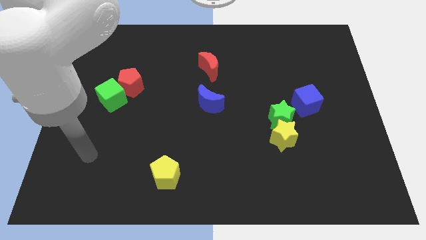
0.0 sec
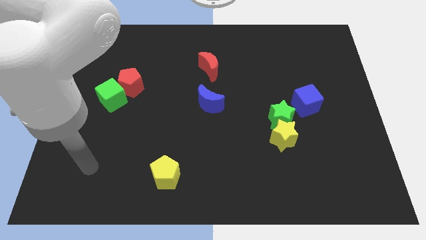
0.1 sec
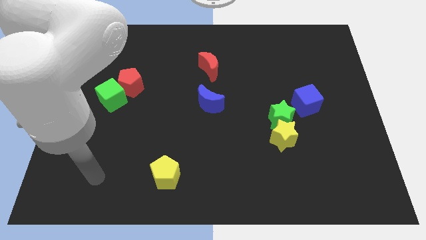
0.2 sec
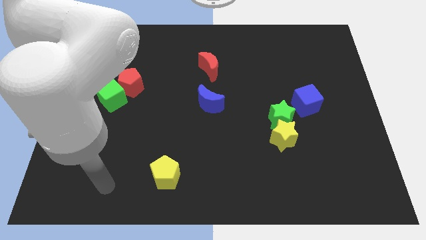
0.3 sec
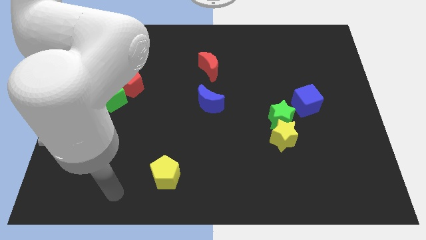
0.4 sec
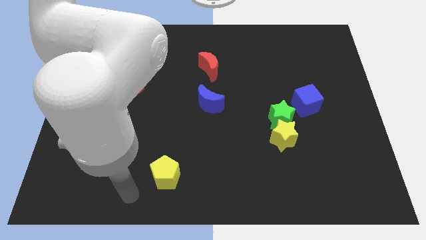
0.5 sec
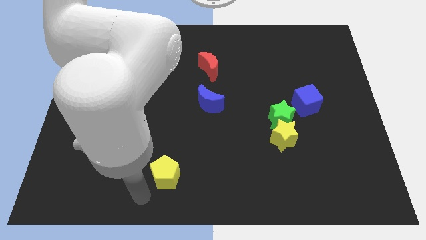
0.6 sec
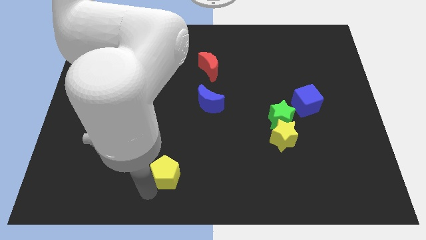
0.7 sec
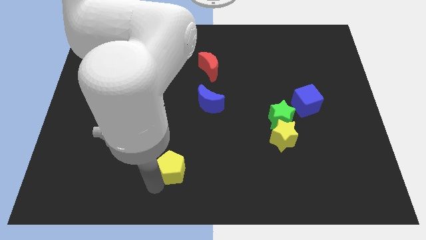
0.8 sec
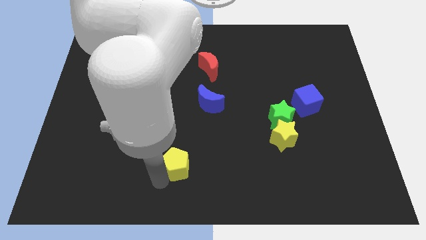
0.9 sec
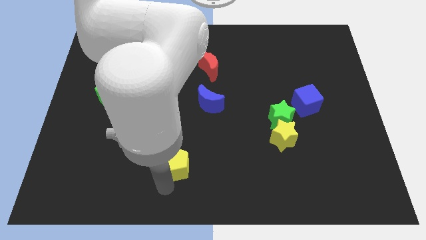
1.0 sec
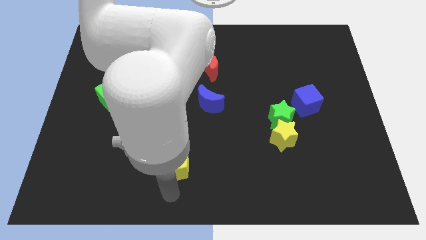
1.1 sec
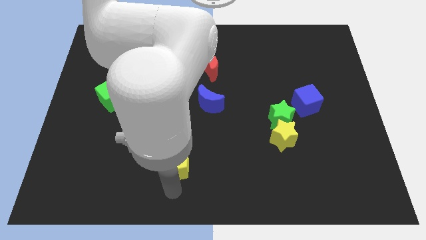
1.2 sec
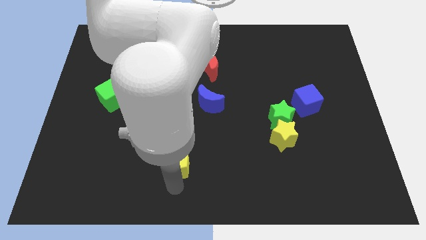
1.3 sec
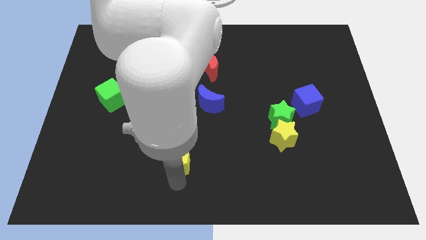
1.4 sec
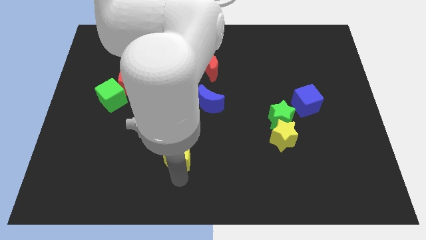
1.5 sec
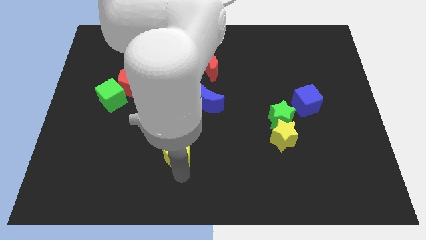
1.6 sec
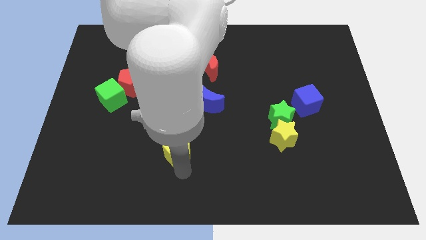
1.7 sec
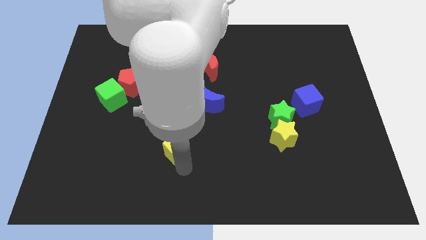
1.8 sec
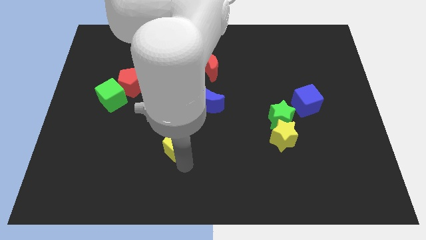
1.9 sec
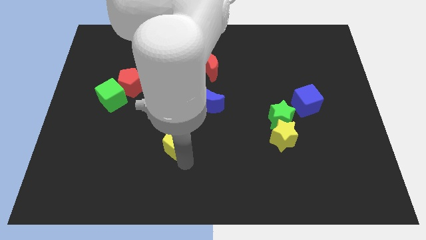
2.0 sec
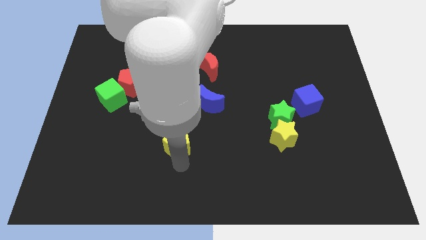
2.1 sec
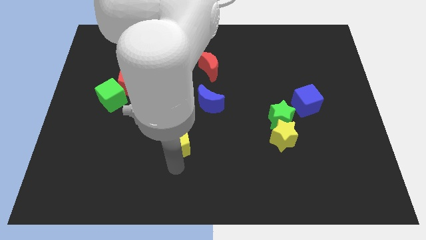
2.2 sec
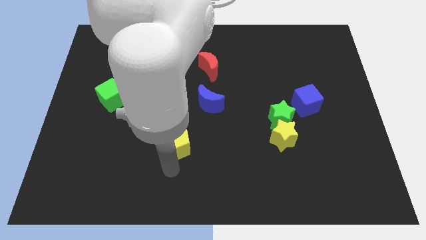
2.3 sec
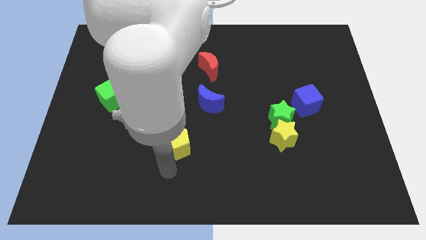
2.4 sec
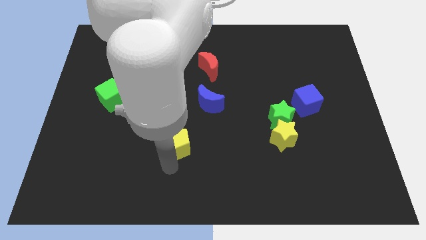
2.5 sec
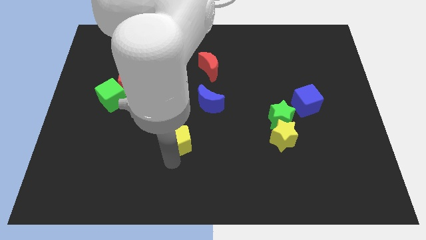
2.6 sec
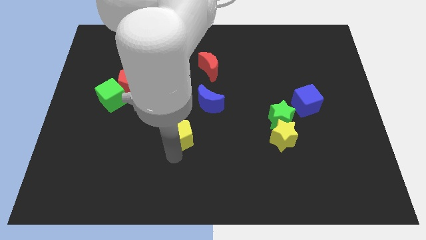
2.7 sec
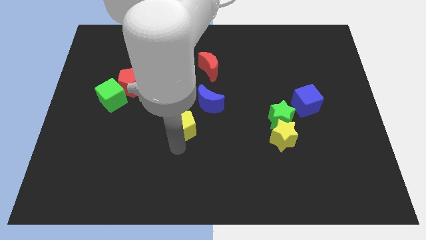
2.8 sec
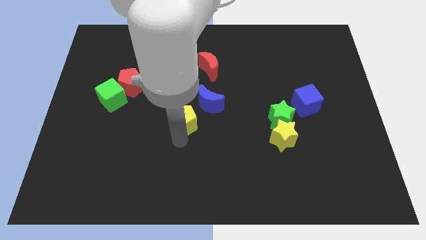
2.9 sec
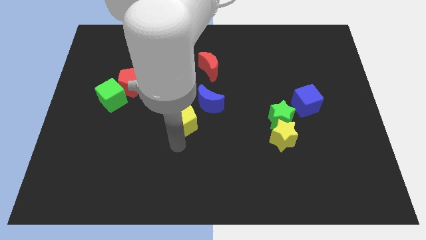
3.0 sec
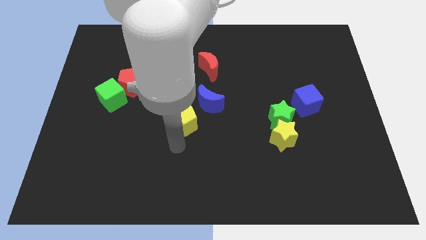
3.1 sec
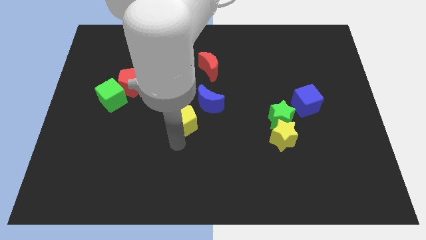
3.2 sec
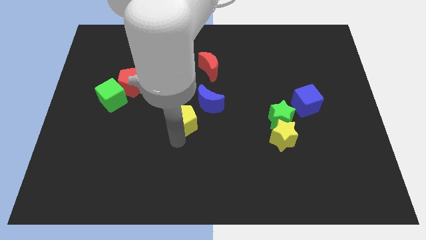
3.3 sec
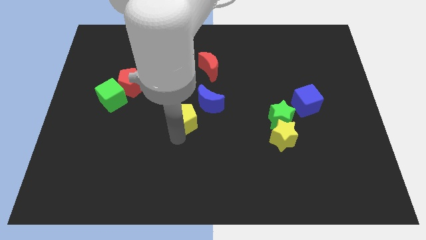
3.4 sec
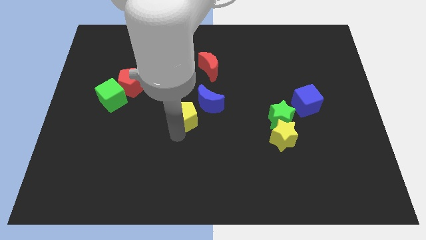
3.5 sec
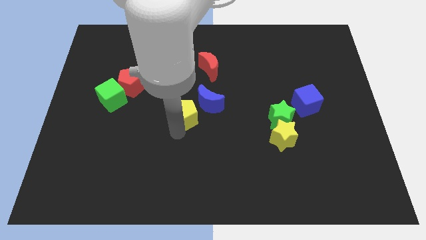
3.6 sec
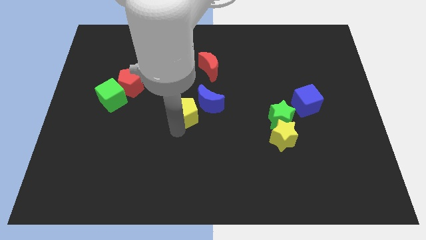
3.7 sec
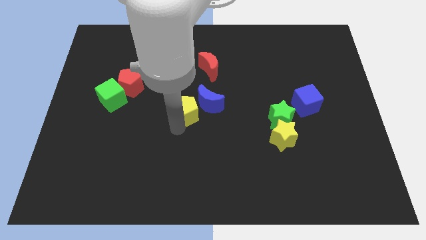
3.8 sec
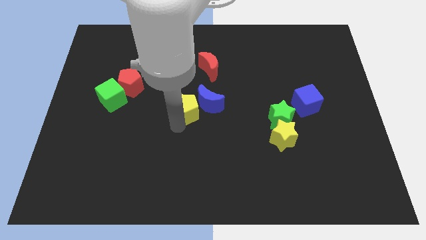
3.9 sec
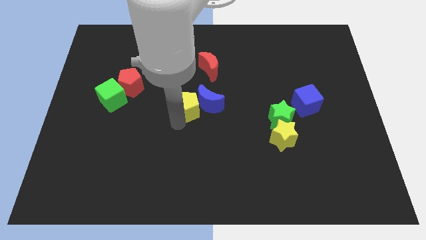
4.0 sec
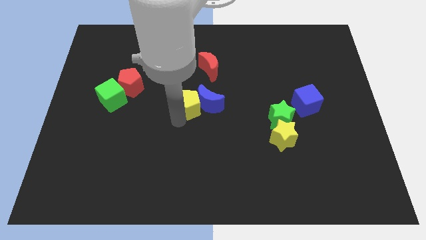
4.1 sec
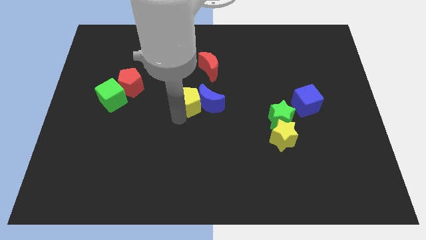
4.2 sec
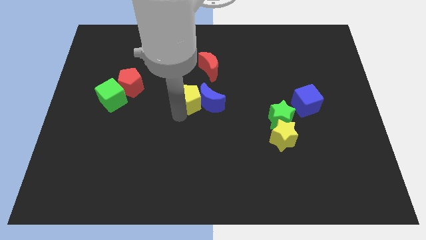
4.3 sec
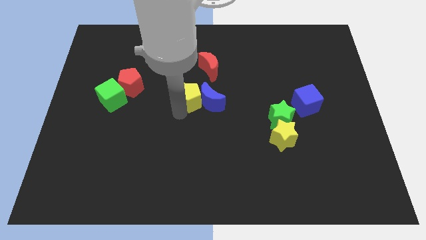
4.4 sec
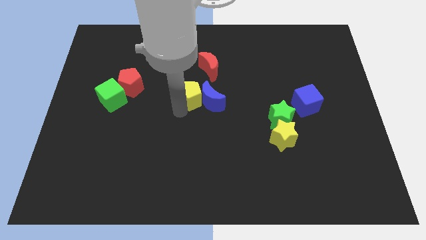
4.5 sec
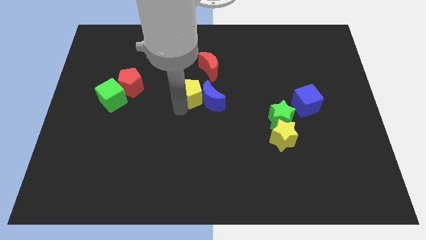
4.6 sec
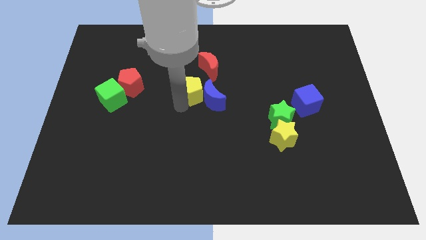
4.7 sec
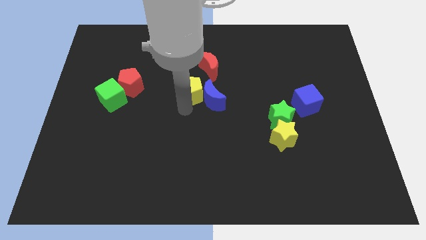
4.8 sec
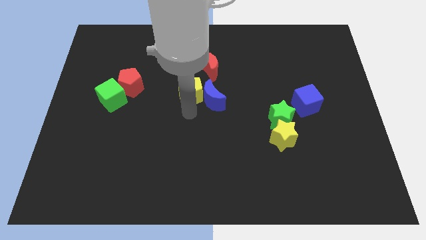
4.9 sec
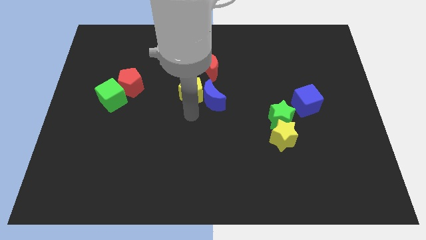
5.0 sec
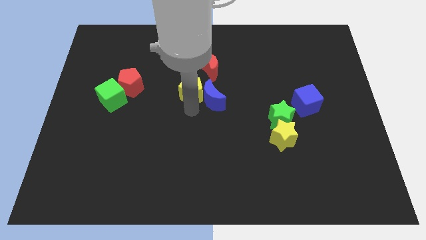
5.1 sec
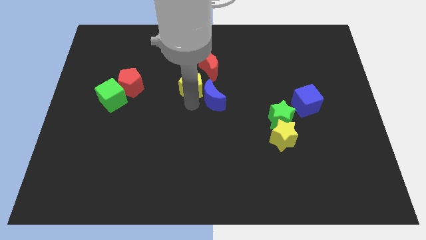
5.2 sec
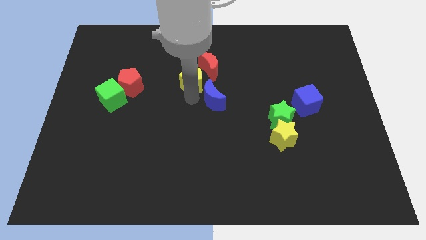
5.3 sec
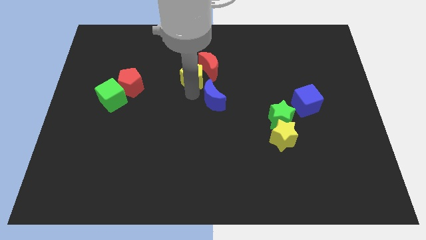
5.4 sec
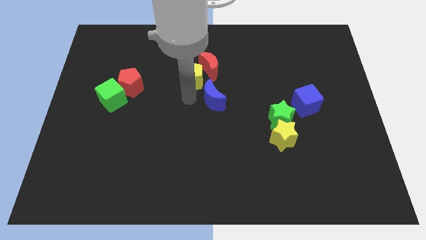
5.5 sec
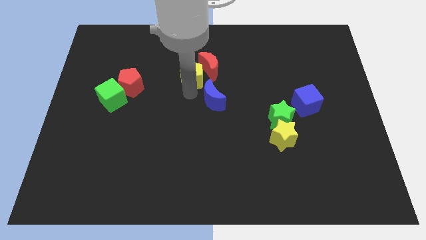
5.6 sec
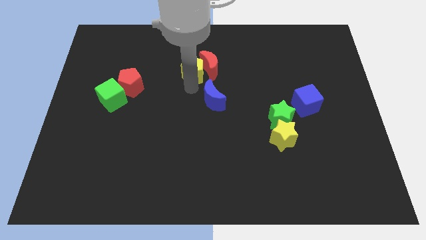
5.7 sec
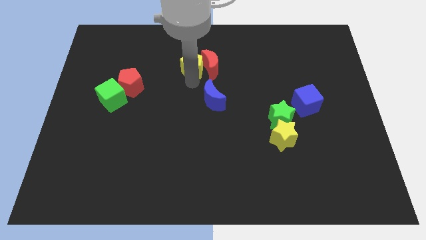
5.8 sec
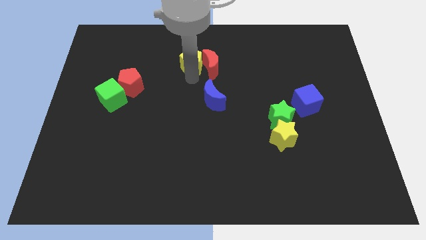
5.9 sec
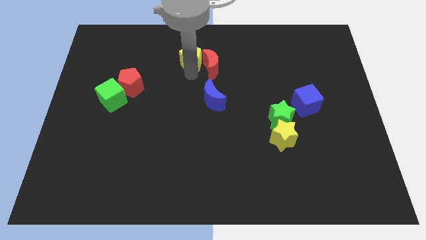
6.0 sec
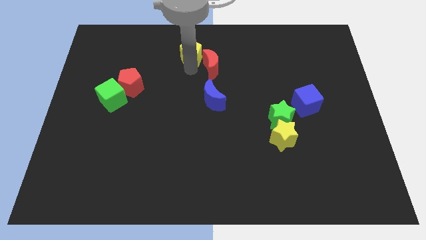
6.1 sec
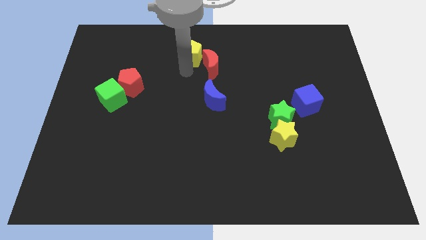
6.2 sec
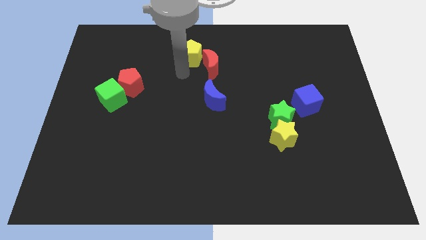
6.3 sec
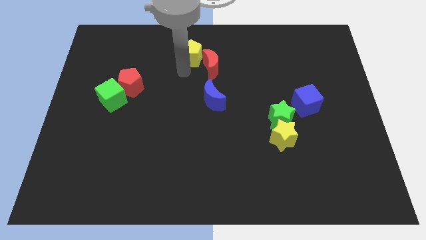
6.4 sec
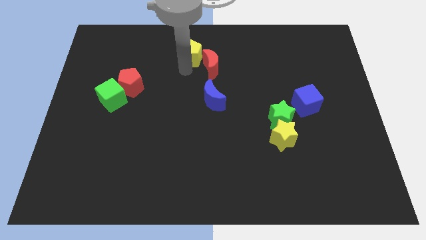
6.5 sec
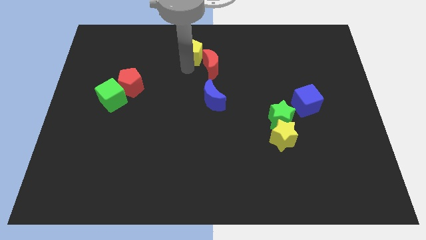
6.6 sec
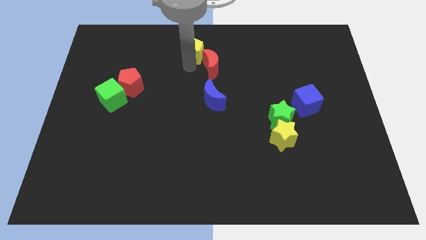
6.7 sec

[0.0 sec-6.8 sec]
put the yellow pentagon to the top
